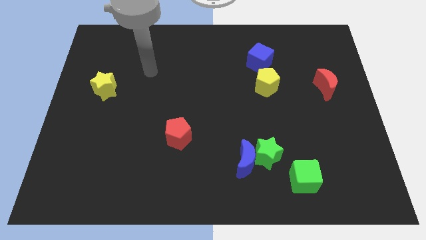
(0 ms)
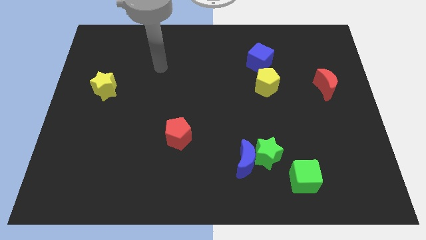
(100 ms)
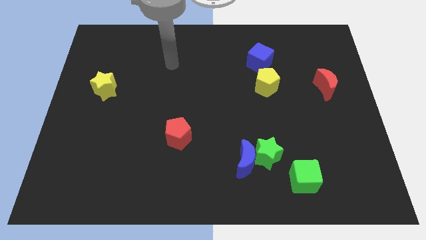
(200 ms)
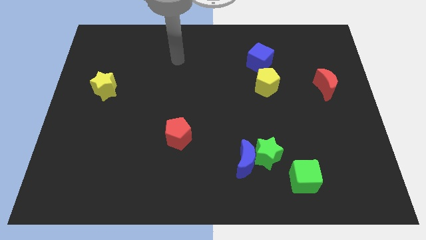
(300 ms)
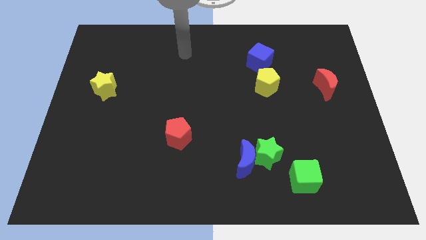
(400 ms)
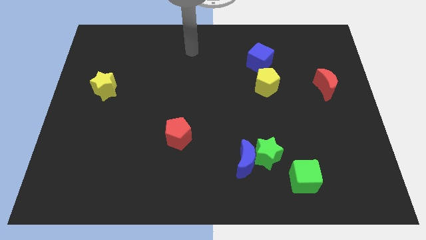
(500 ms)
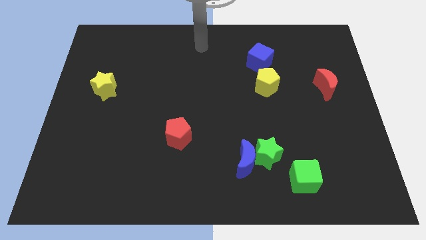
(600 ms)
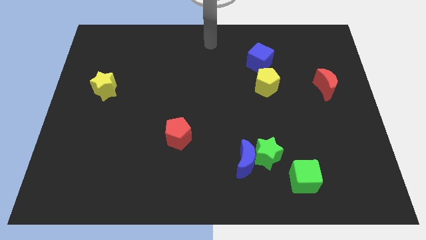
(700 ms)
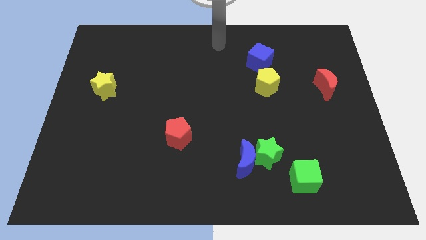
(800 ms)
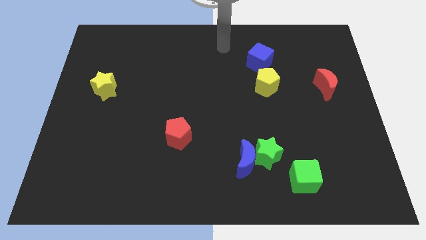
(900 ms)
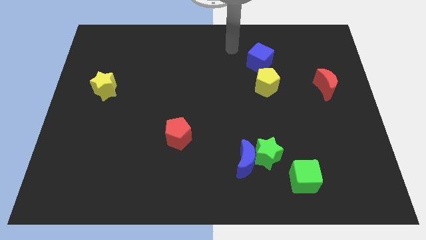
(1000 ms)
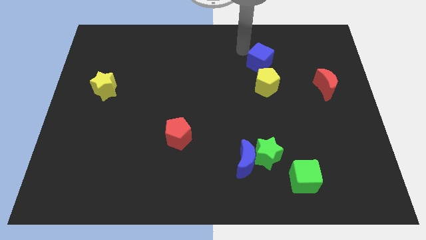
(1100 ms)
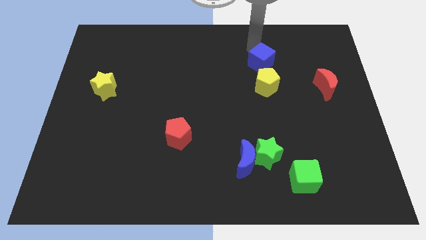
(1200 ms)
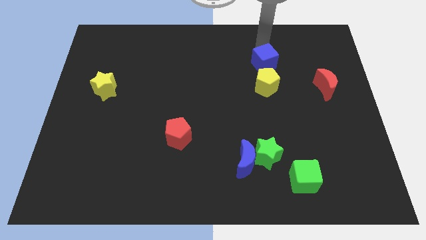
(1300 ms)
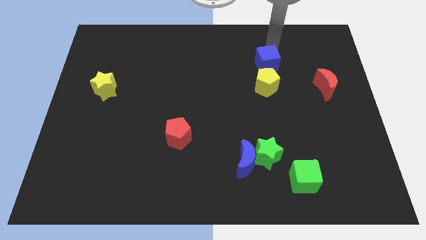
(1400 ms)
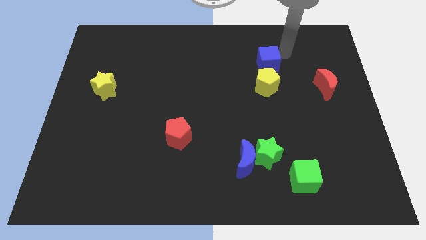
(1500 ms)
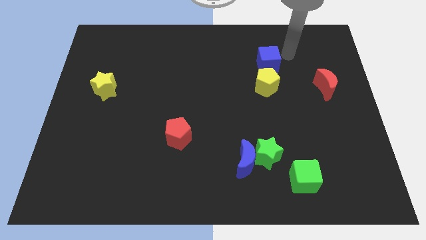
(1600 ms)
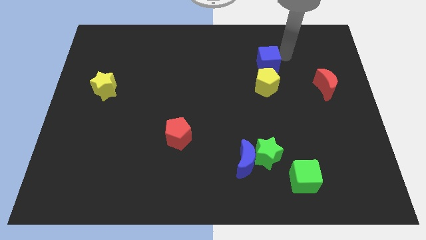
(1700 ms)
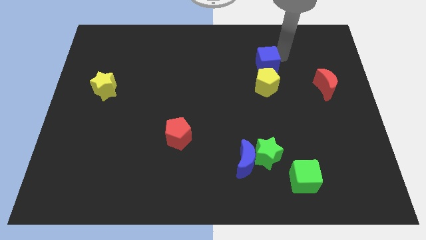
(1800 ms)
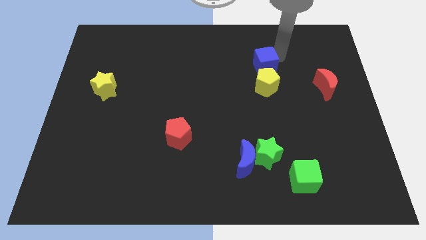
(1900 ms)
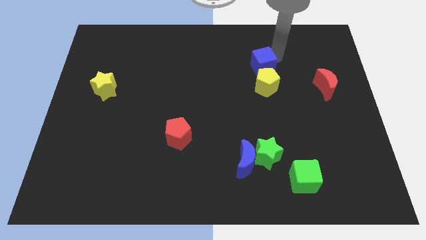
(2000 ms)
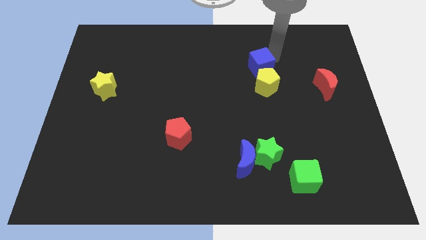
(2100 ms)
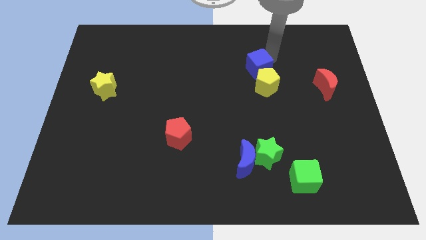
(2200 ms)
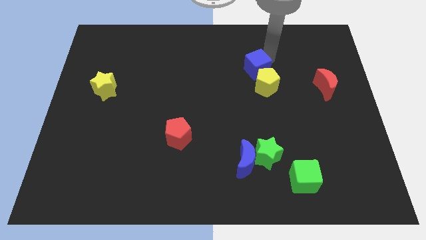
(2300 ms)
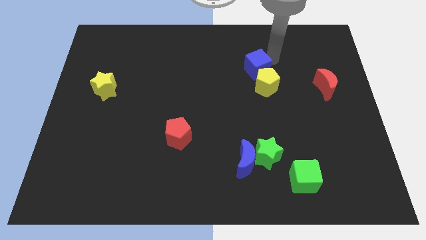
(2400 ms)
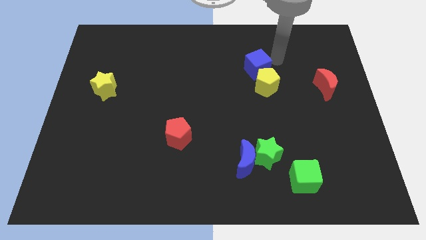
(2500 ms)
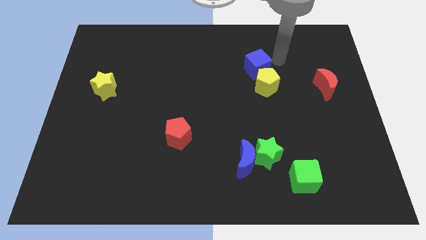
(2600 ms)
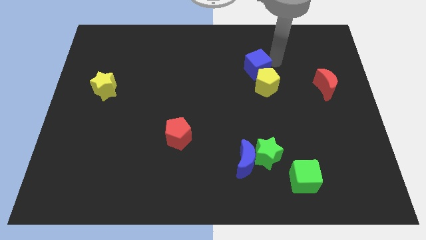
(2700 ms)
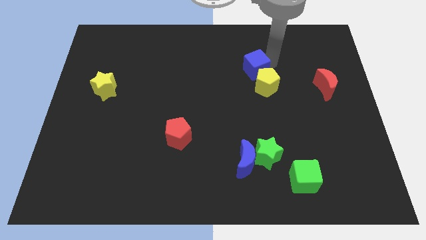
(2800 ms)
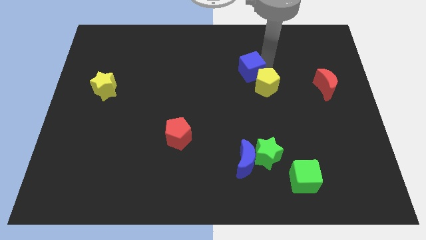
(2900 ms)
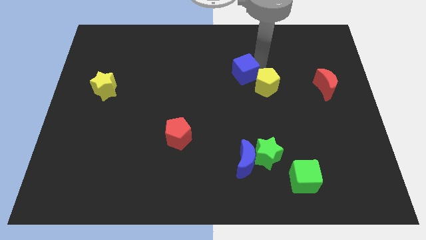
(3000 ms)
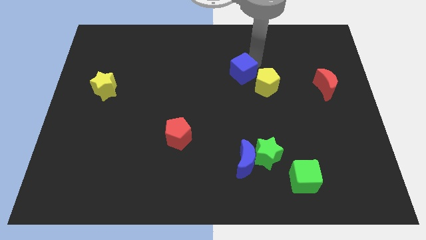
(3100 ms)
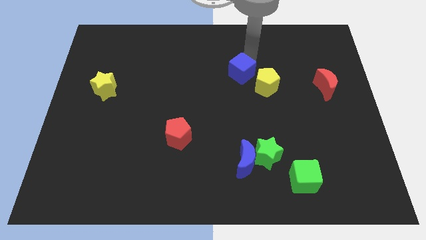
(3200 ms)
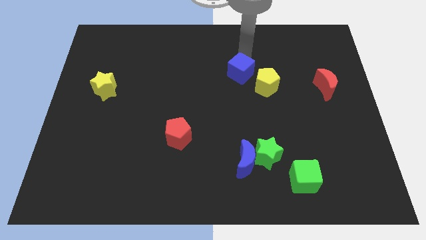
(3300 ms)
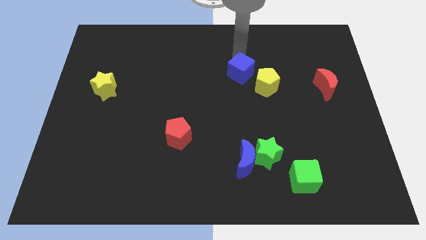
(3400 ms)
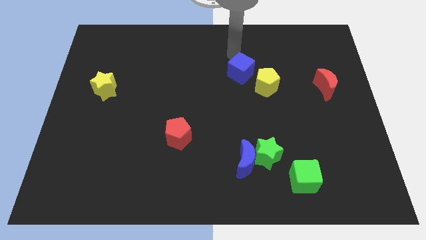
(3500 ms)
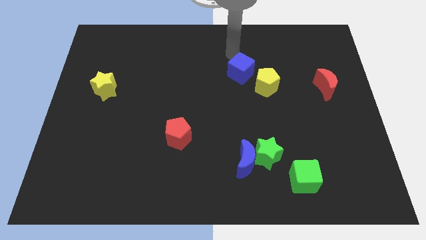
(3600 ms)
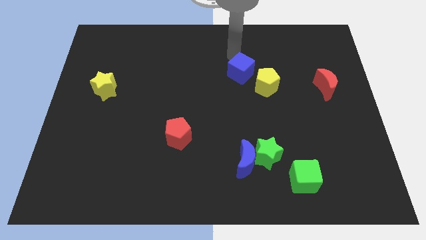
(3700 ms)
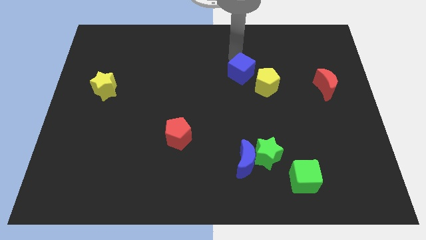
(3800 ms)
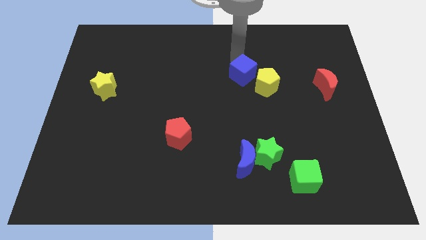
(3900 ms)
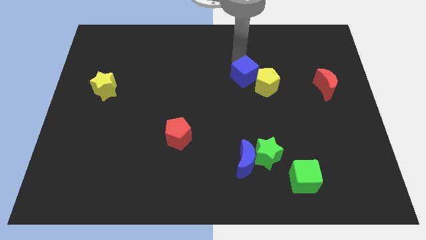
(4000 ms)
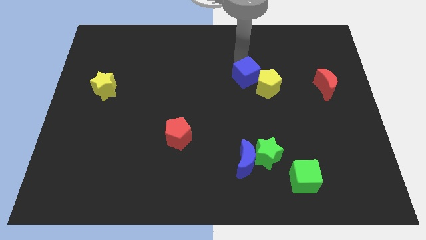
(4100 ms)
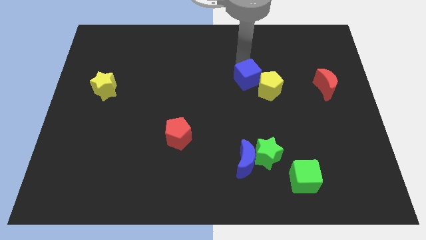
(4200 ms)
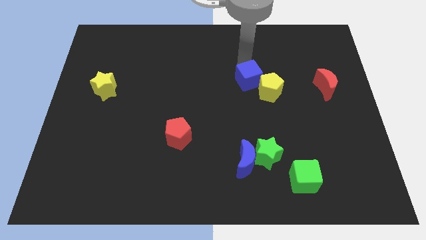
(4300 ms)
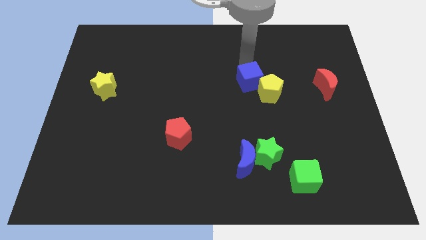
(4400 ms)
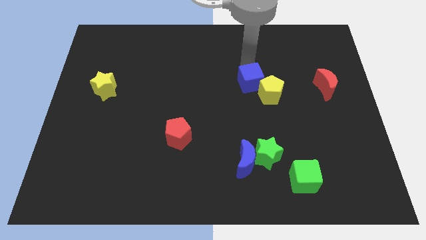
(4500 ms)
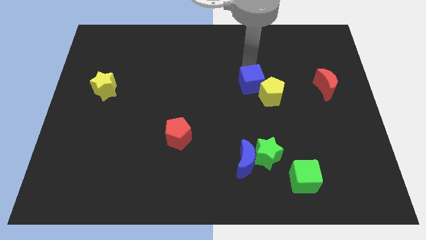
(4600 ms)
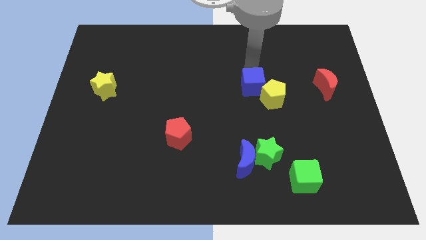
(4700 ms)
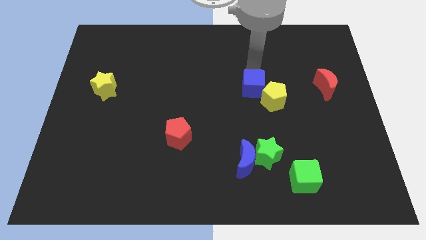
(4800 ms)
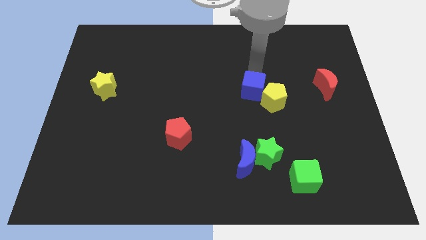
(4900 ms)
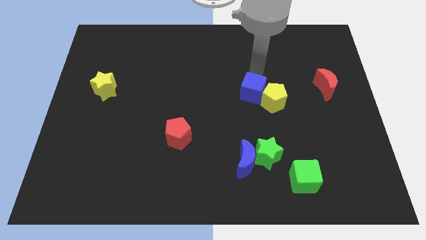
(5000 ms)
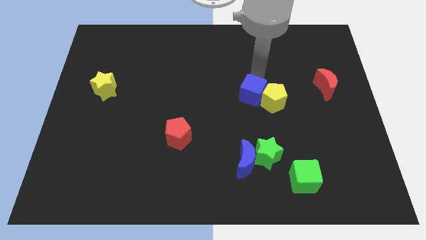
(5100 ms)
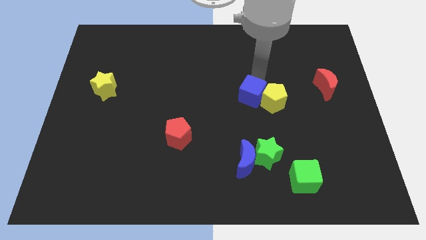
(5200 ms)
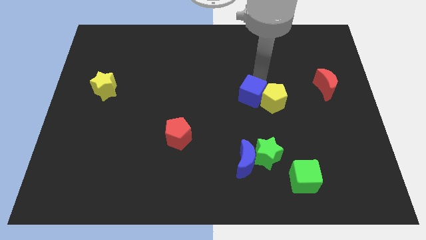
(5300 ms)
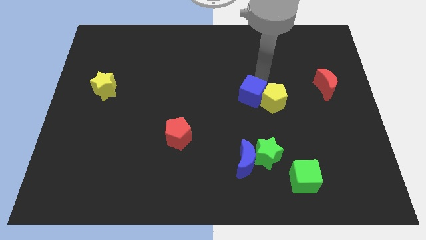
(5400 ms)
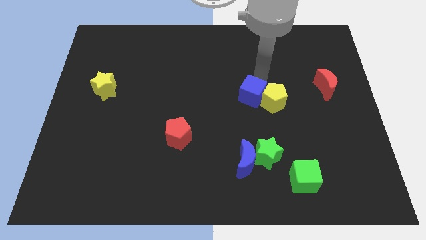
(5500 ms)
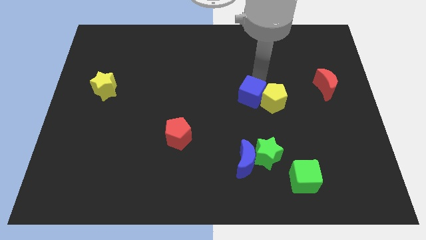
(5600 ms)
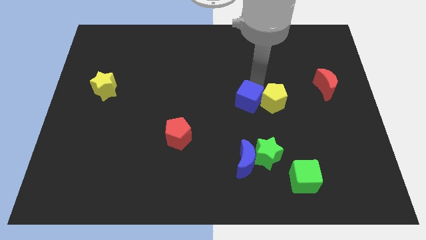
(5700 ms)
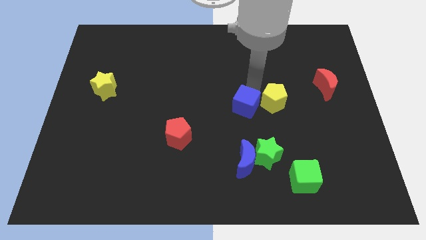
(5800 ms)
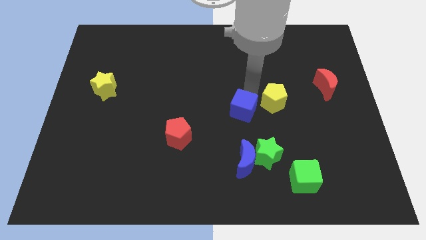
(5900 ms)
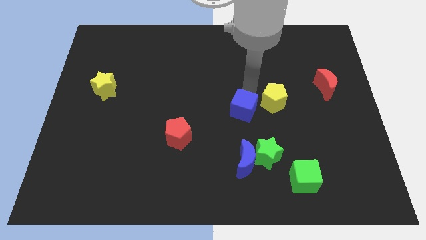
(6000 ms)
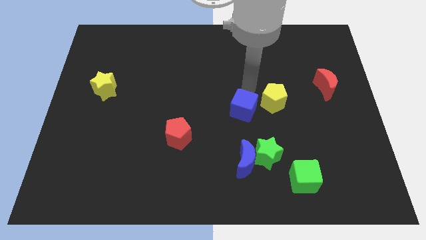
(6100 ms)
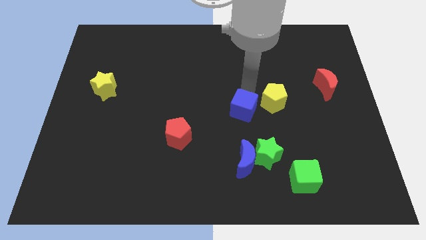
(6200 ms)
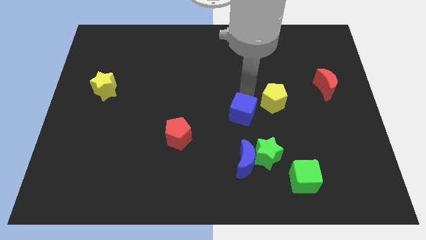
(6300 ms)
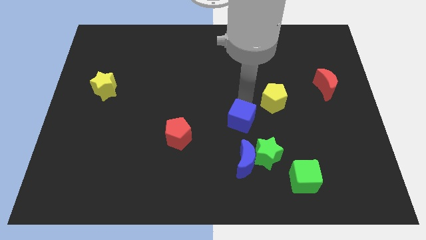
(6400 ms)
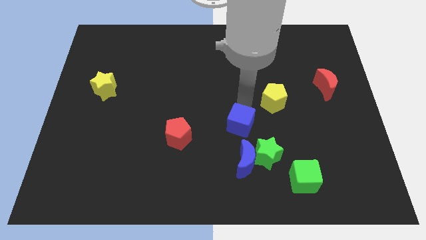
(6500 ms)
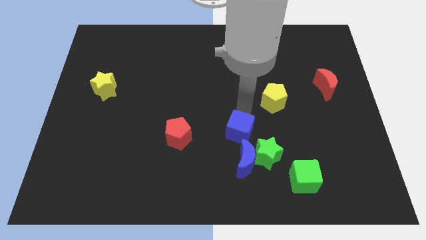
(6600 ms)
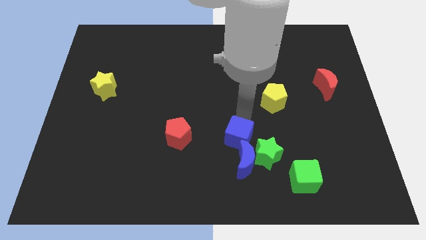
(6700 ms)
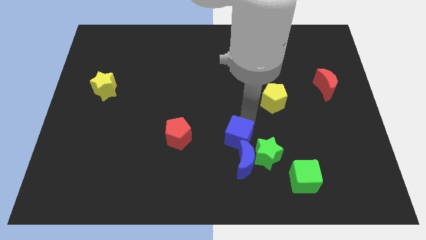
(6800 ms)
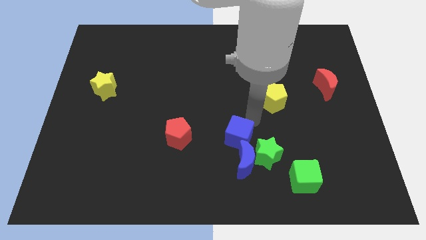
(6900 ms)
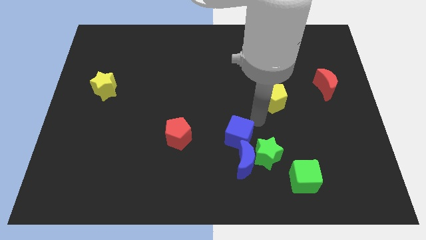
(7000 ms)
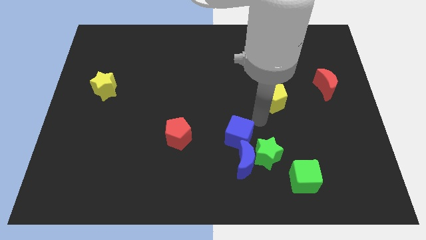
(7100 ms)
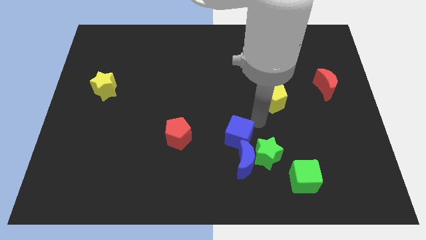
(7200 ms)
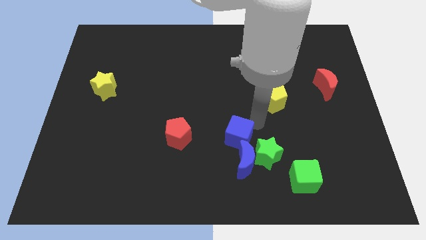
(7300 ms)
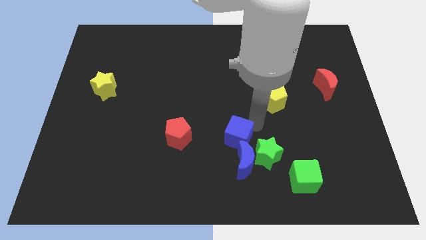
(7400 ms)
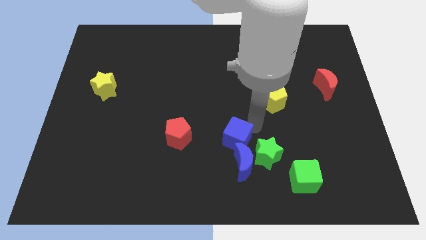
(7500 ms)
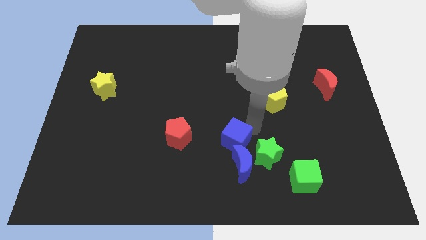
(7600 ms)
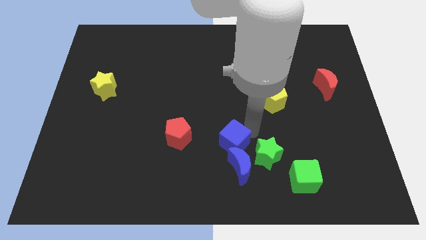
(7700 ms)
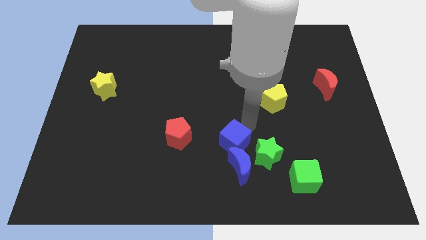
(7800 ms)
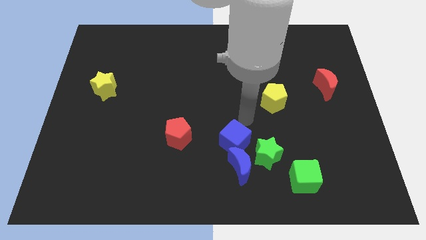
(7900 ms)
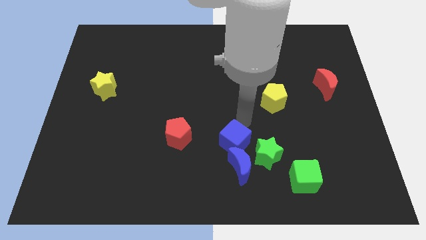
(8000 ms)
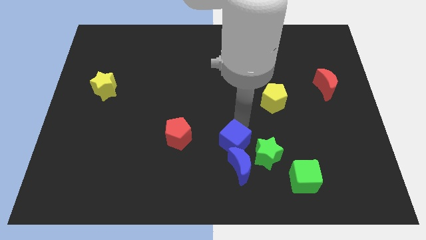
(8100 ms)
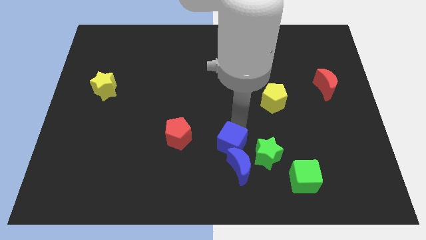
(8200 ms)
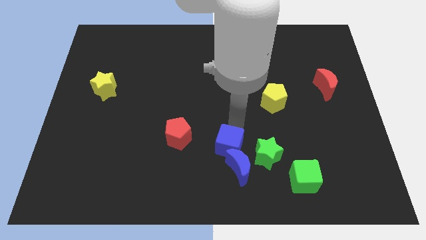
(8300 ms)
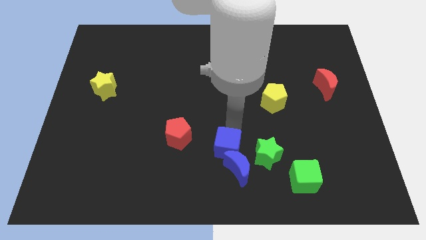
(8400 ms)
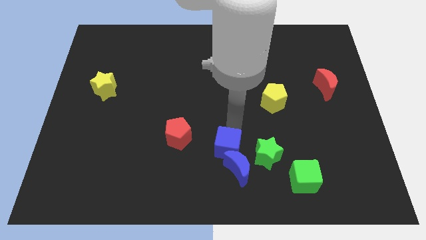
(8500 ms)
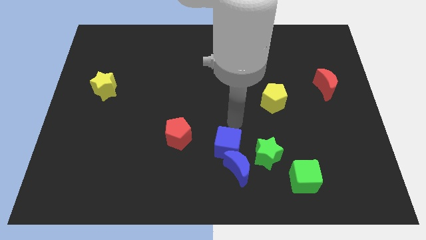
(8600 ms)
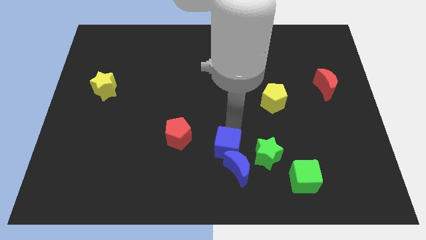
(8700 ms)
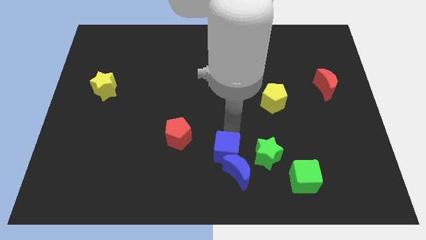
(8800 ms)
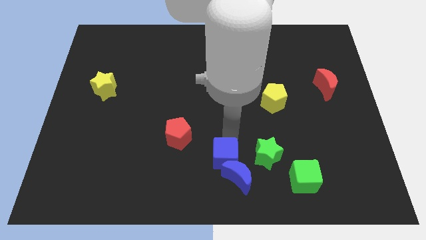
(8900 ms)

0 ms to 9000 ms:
move the blue cube to the bottom side
